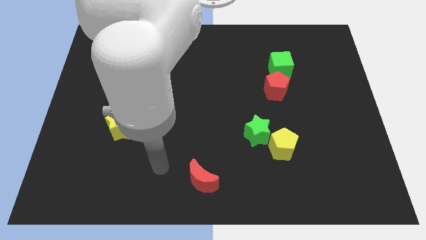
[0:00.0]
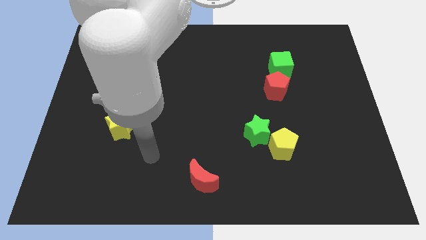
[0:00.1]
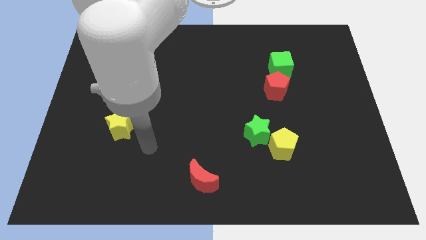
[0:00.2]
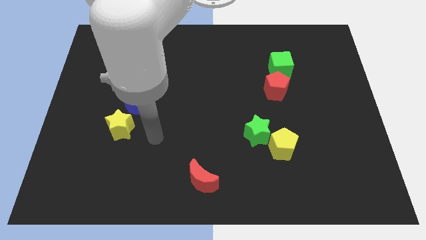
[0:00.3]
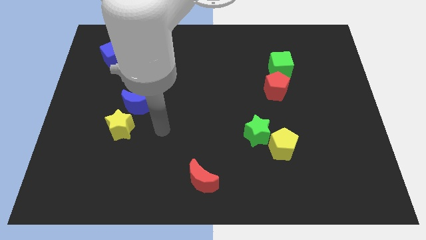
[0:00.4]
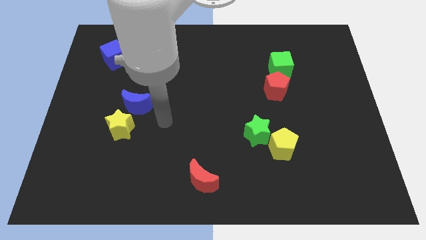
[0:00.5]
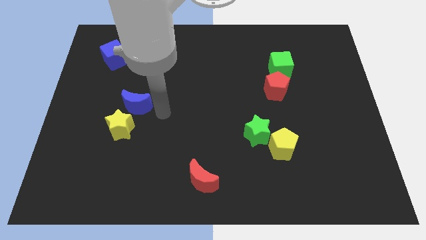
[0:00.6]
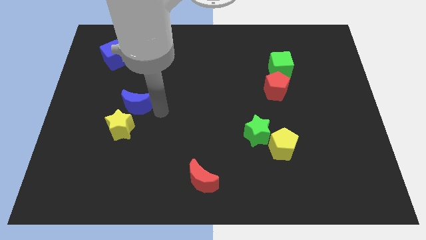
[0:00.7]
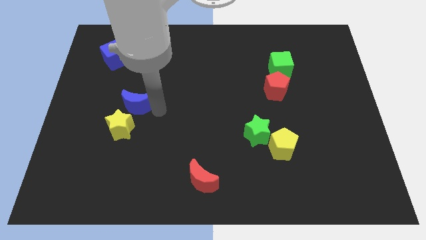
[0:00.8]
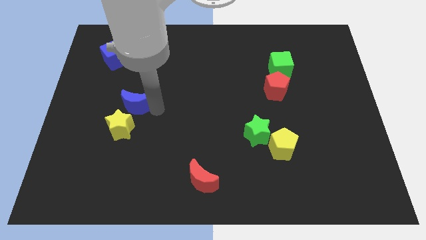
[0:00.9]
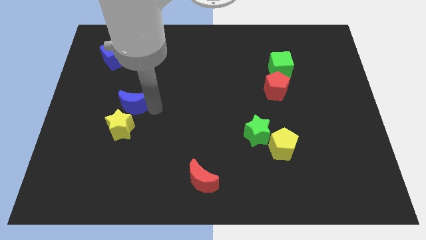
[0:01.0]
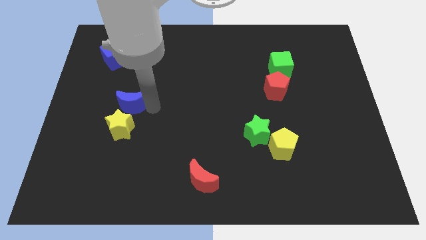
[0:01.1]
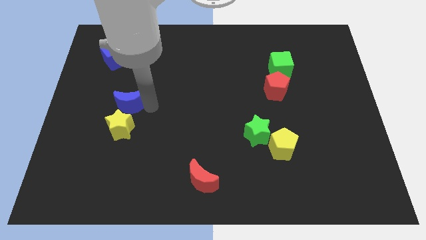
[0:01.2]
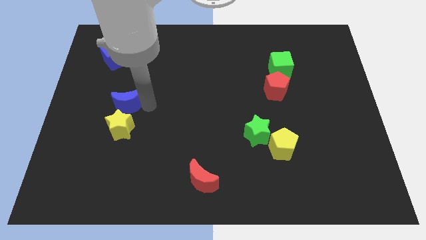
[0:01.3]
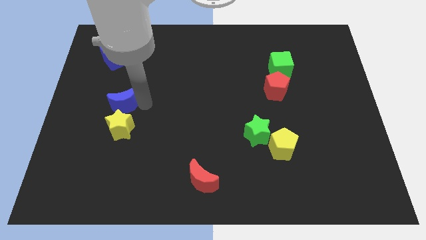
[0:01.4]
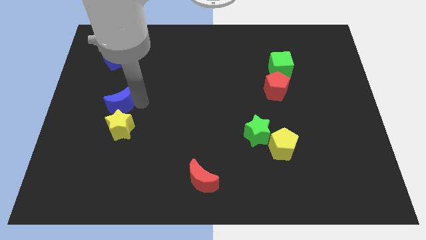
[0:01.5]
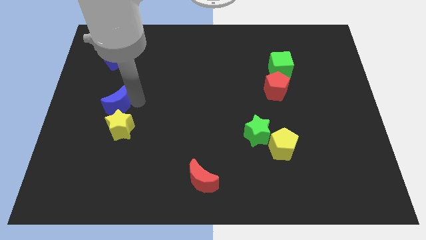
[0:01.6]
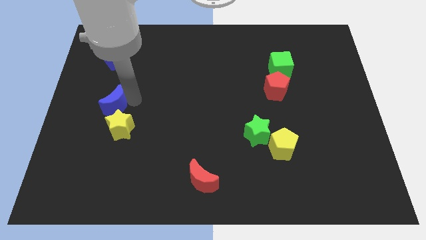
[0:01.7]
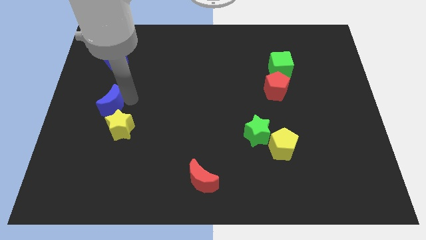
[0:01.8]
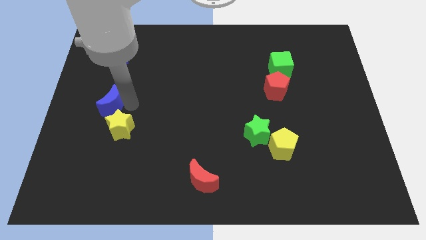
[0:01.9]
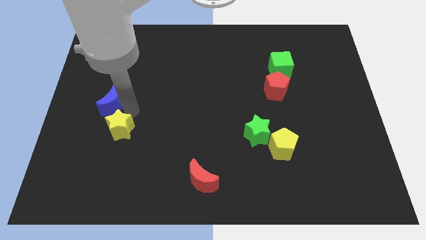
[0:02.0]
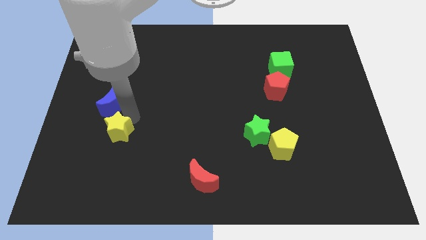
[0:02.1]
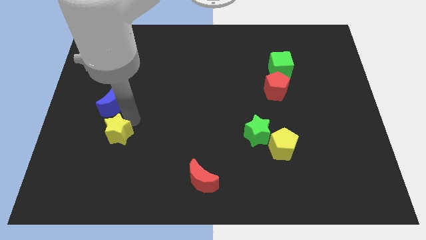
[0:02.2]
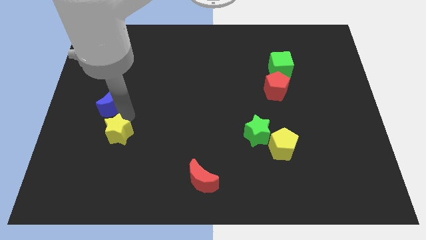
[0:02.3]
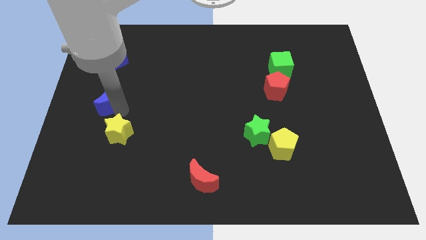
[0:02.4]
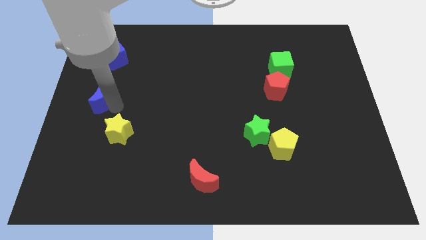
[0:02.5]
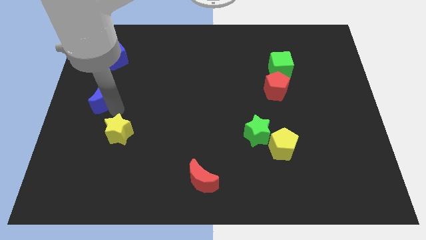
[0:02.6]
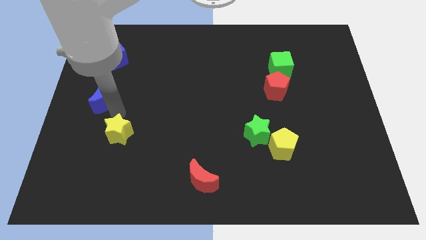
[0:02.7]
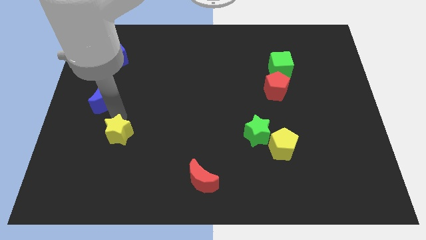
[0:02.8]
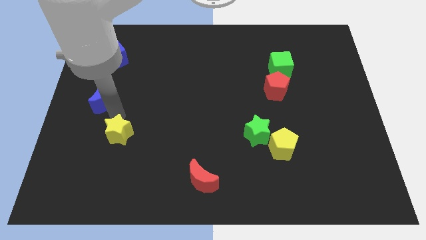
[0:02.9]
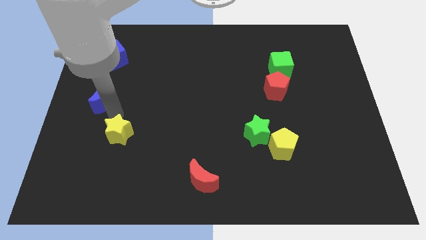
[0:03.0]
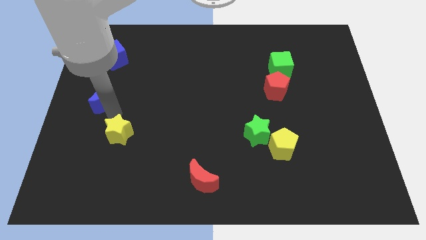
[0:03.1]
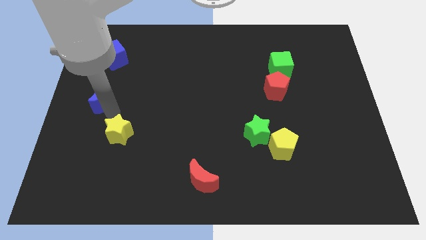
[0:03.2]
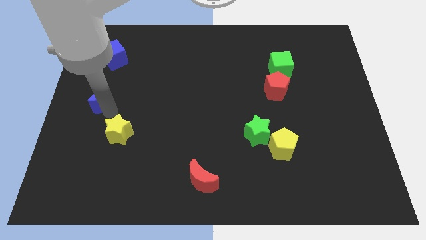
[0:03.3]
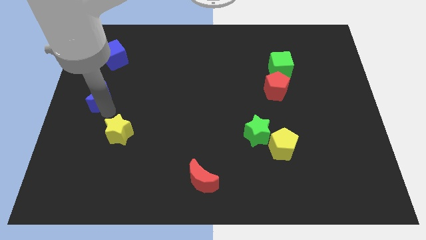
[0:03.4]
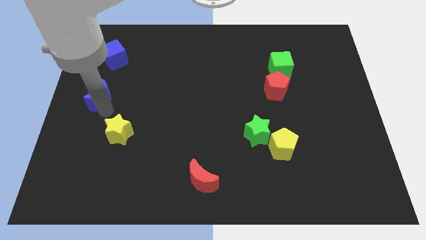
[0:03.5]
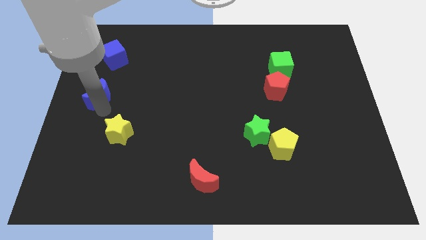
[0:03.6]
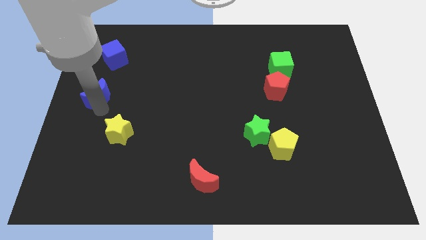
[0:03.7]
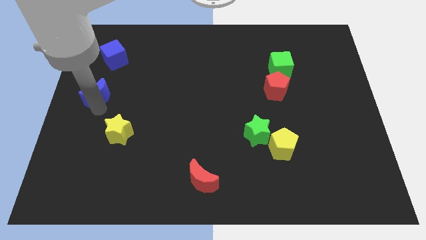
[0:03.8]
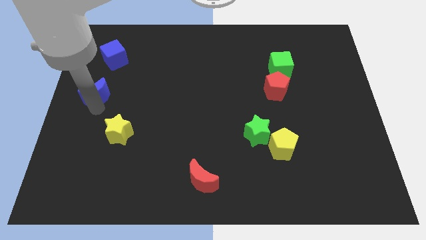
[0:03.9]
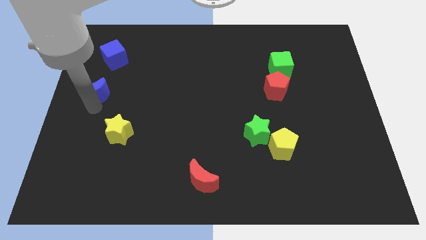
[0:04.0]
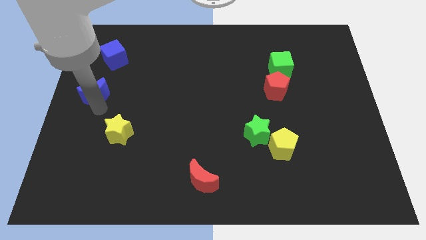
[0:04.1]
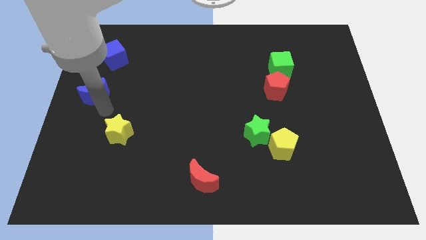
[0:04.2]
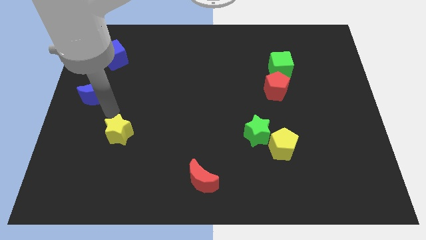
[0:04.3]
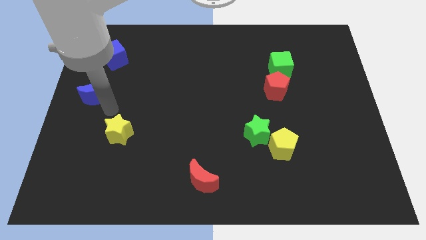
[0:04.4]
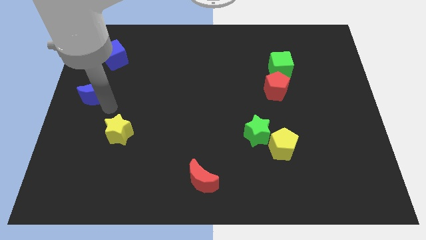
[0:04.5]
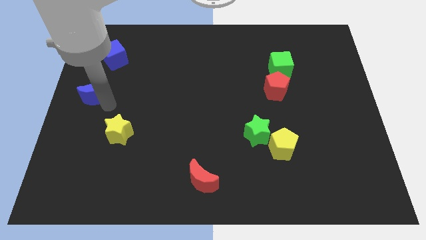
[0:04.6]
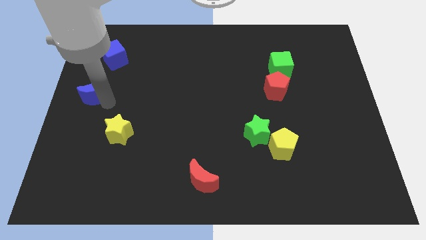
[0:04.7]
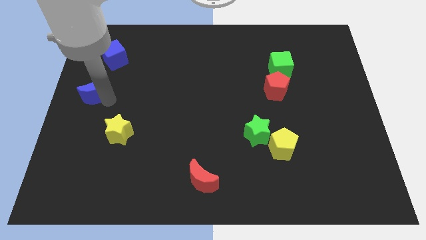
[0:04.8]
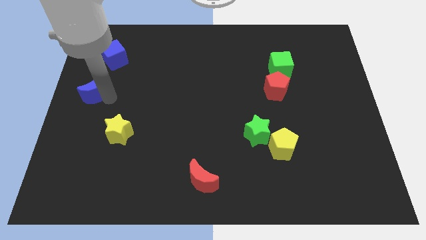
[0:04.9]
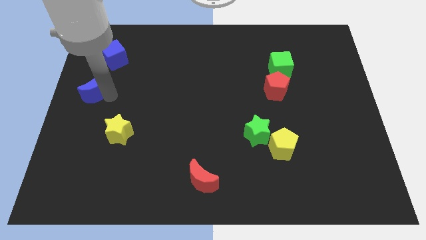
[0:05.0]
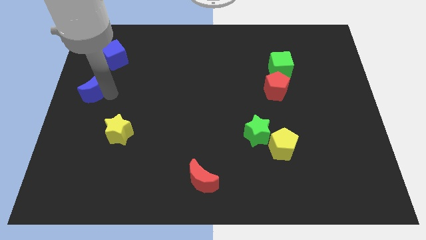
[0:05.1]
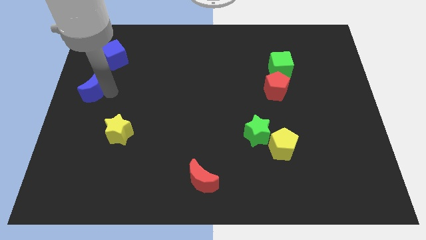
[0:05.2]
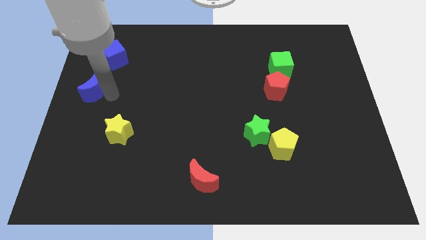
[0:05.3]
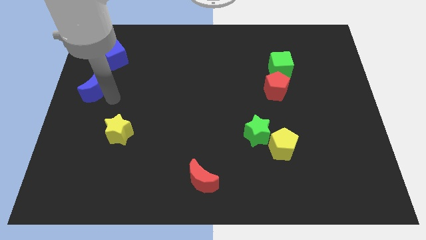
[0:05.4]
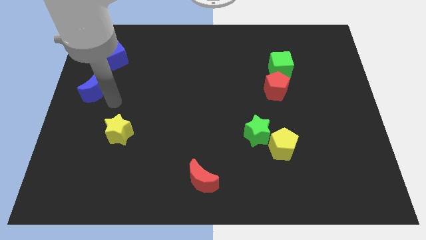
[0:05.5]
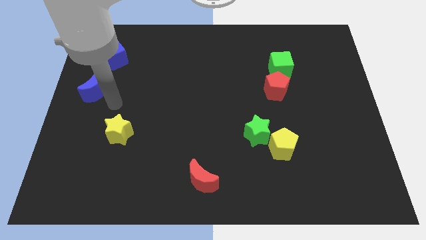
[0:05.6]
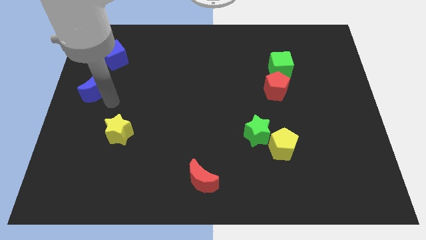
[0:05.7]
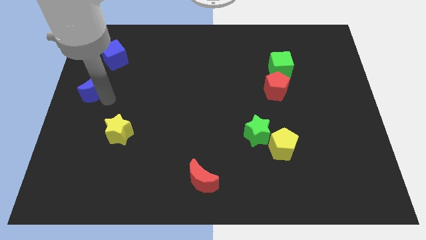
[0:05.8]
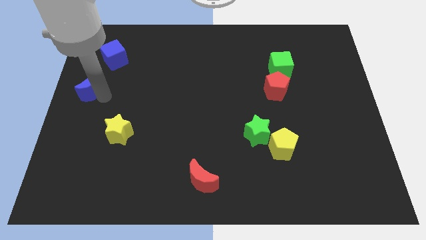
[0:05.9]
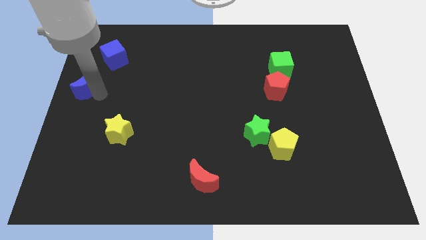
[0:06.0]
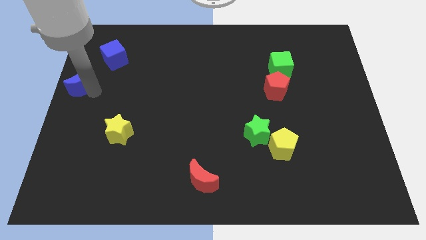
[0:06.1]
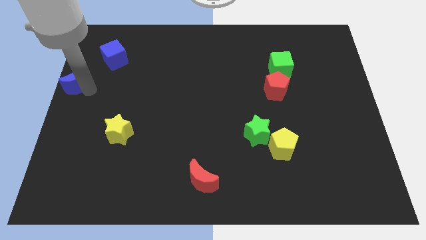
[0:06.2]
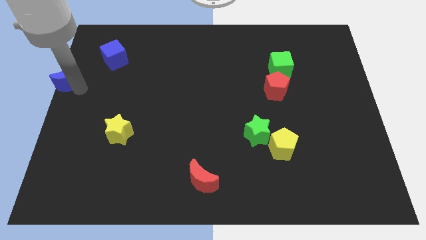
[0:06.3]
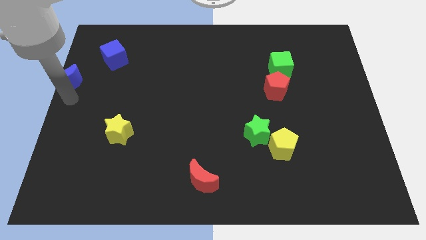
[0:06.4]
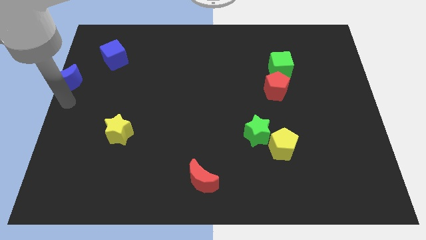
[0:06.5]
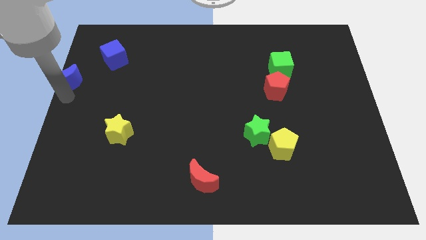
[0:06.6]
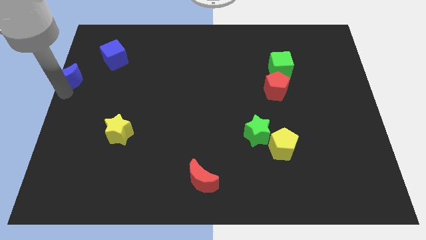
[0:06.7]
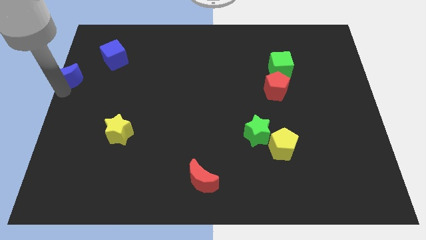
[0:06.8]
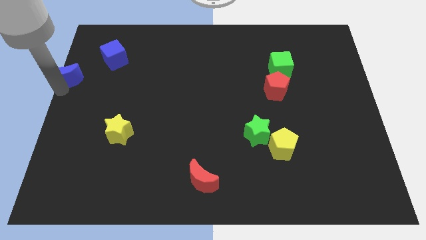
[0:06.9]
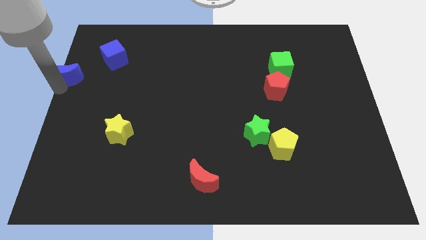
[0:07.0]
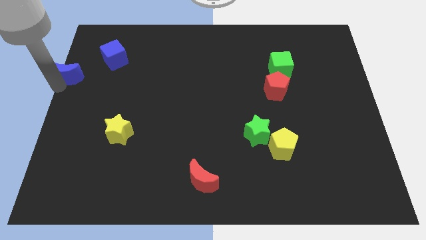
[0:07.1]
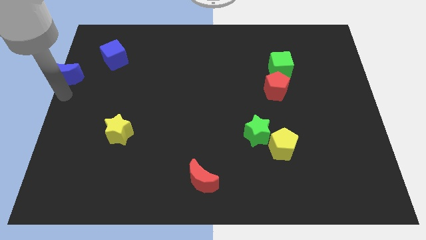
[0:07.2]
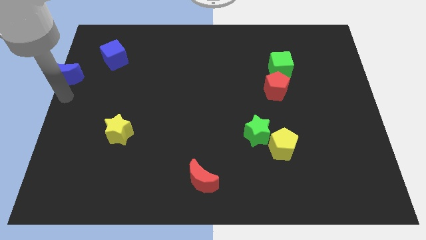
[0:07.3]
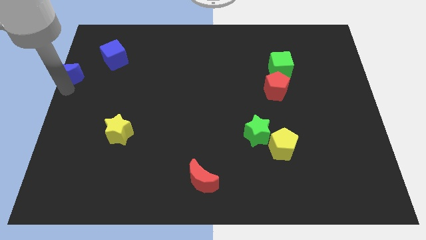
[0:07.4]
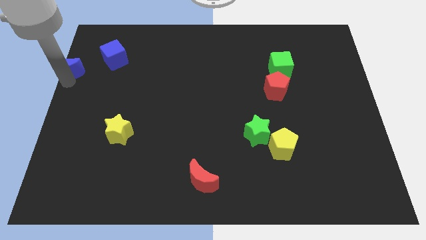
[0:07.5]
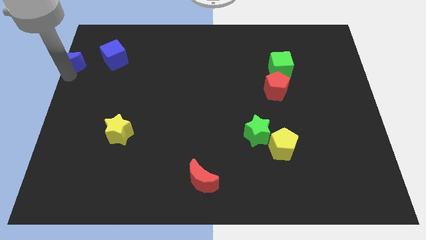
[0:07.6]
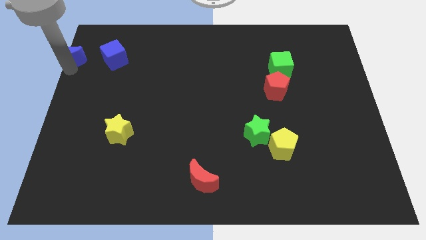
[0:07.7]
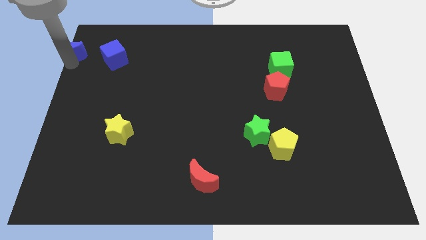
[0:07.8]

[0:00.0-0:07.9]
slide the blue moon to the upper left corner

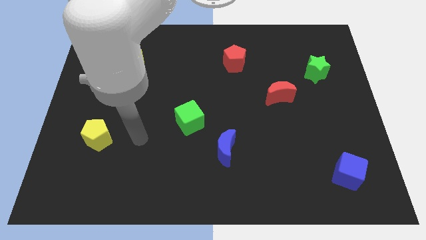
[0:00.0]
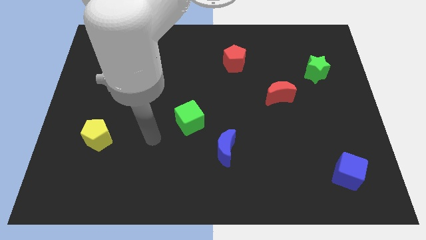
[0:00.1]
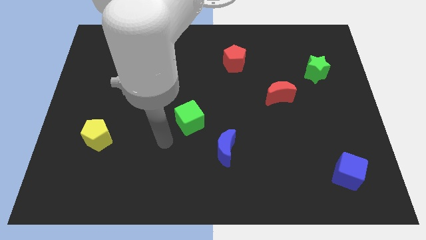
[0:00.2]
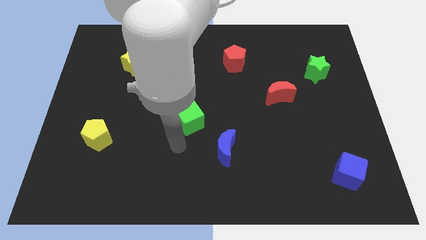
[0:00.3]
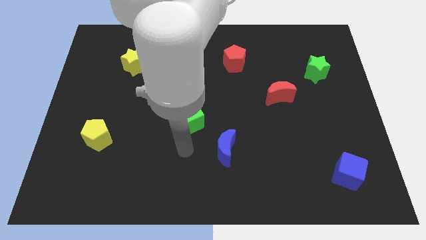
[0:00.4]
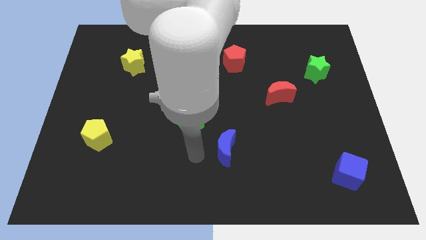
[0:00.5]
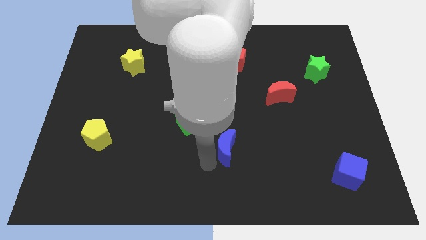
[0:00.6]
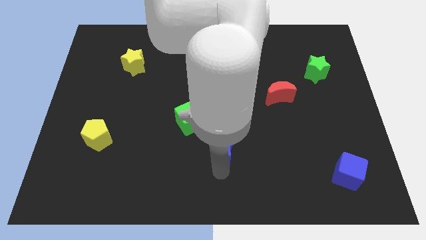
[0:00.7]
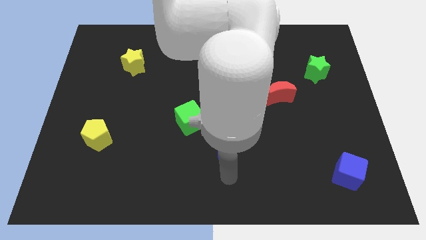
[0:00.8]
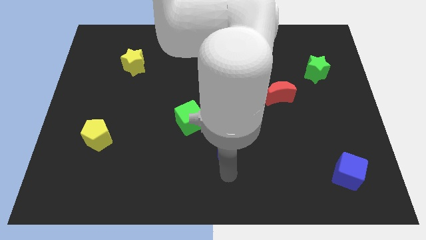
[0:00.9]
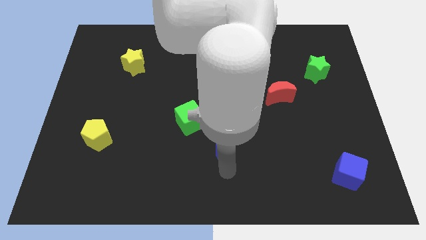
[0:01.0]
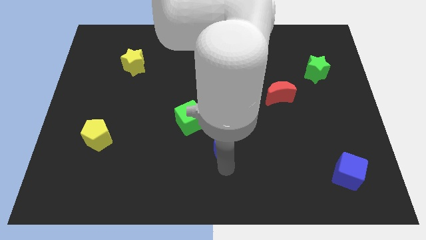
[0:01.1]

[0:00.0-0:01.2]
slide the blue moon to the center
